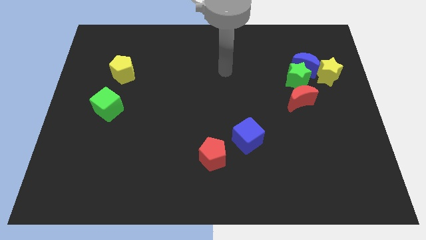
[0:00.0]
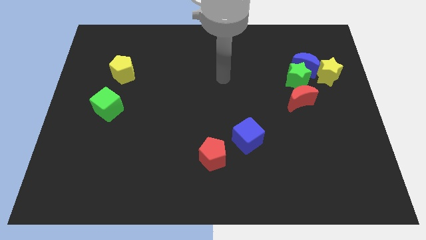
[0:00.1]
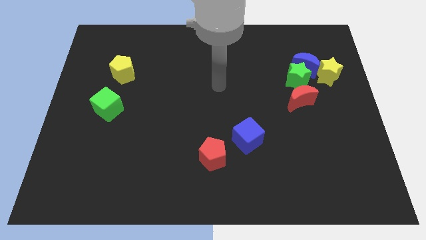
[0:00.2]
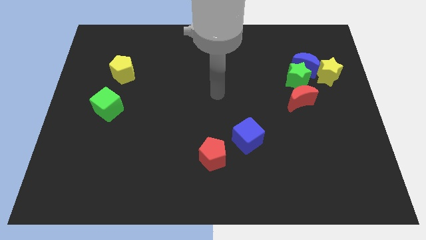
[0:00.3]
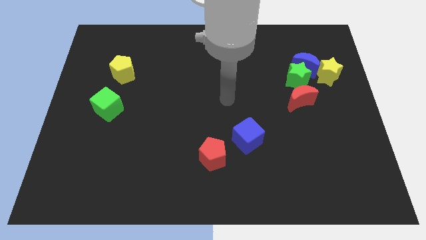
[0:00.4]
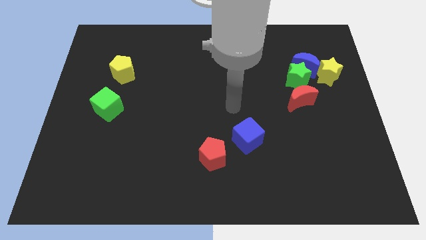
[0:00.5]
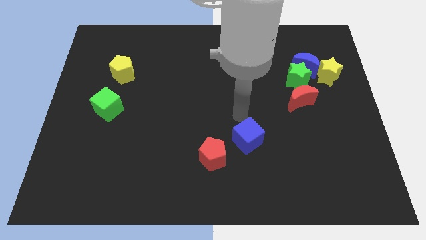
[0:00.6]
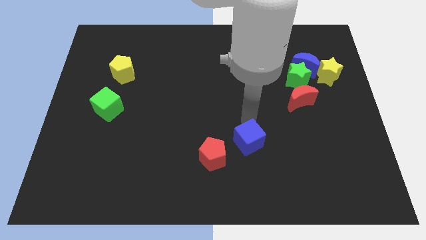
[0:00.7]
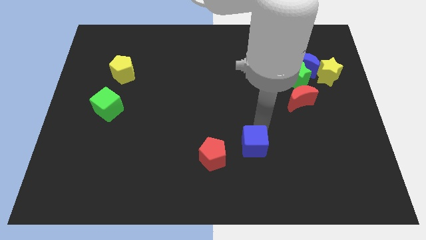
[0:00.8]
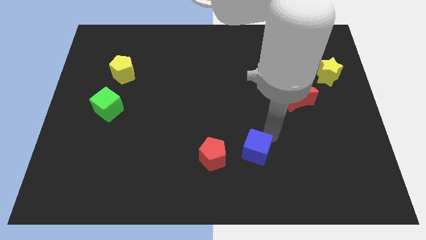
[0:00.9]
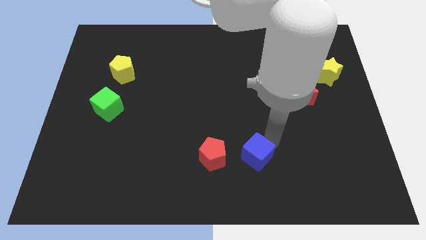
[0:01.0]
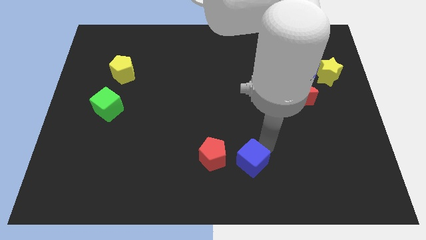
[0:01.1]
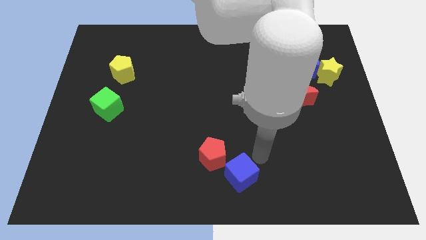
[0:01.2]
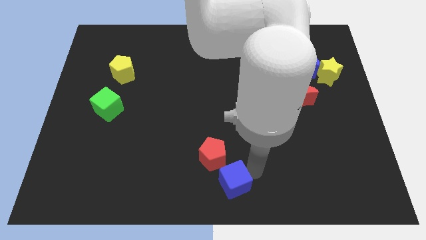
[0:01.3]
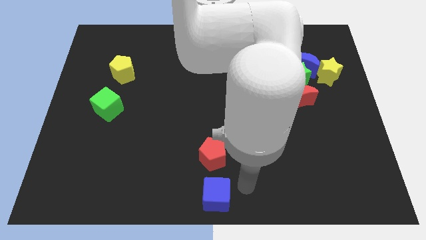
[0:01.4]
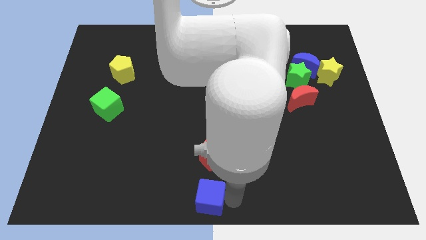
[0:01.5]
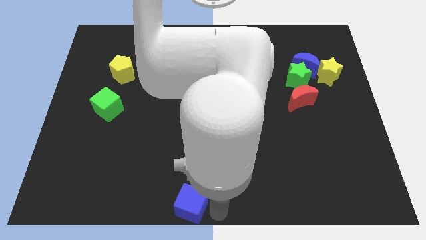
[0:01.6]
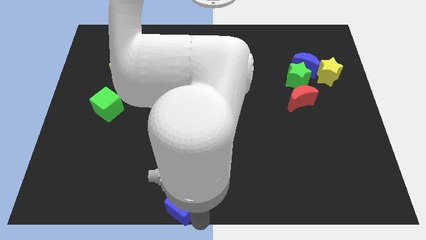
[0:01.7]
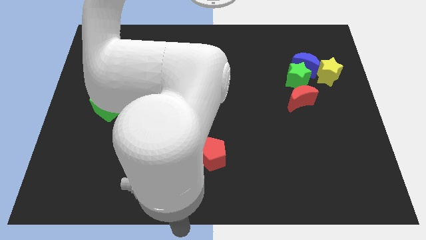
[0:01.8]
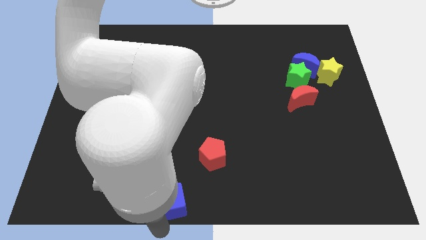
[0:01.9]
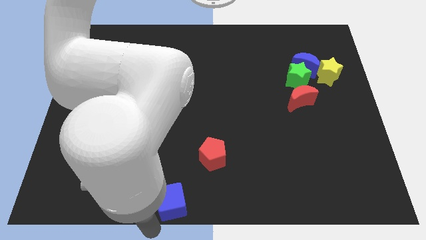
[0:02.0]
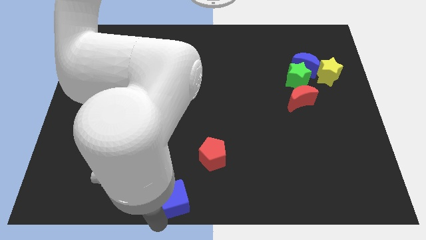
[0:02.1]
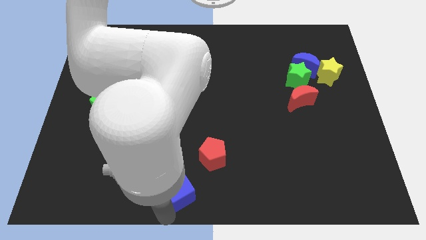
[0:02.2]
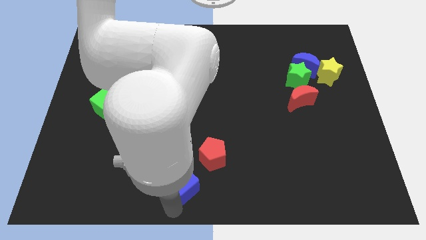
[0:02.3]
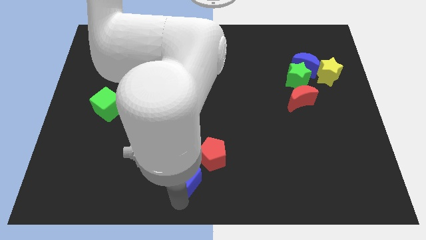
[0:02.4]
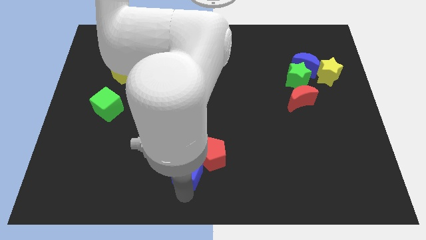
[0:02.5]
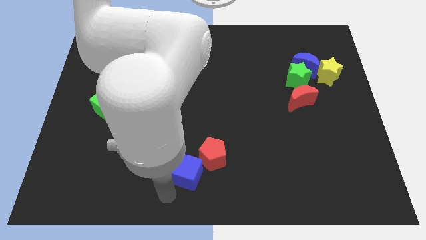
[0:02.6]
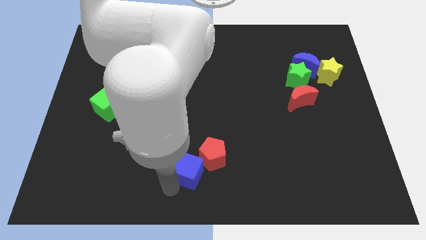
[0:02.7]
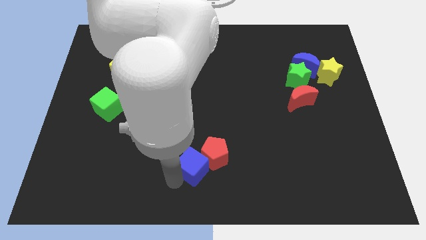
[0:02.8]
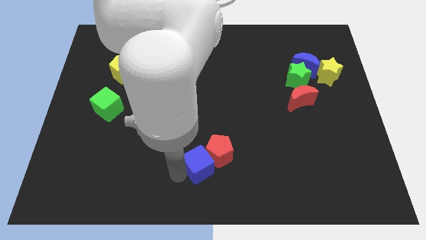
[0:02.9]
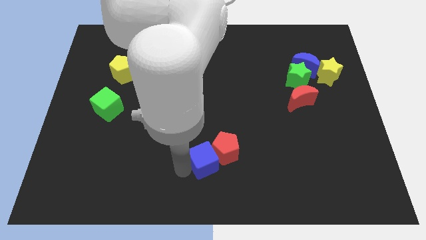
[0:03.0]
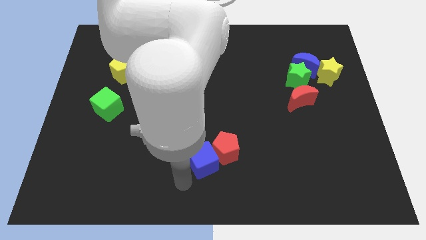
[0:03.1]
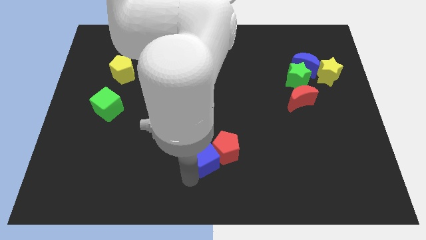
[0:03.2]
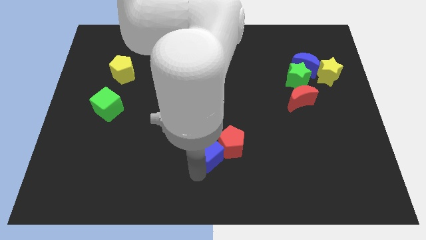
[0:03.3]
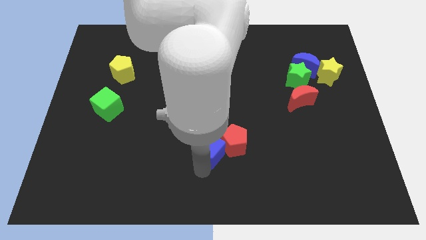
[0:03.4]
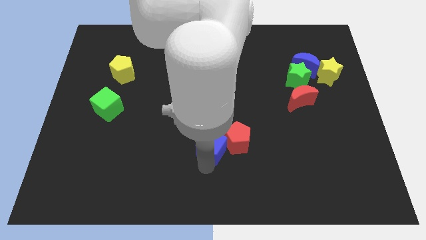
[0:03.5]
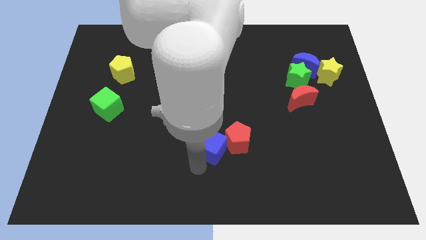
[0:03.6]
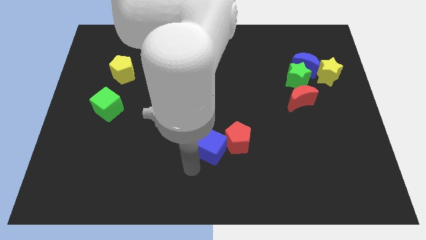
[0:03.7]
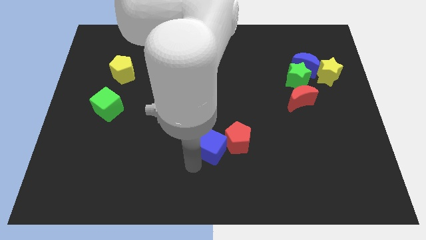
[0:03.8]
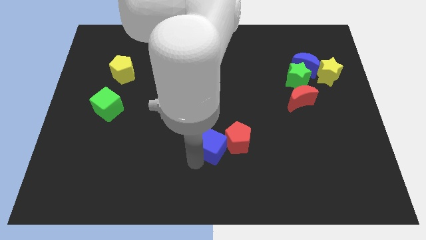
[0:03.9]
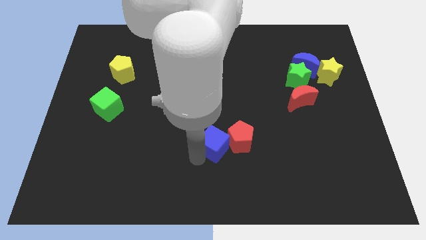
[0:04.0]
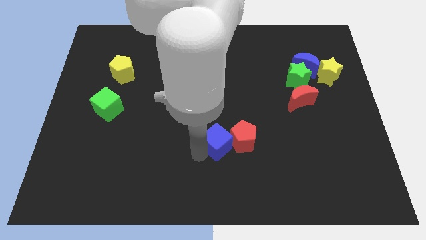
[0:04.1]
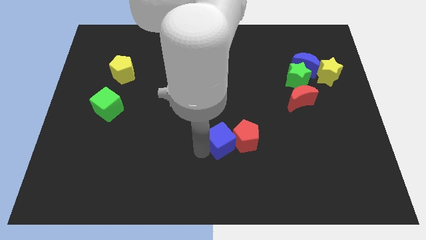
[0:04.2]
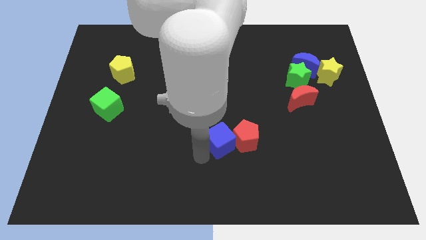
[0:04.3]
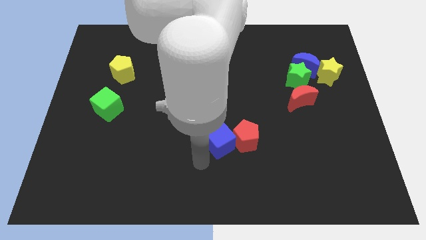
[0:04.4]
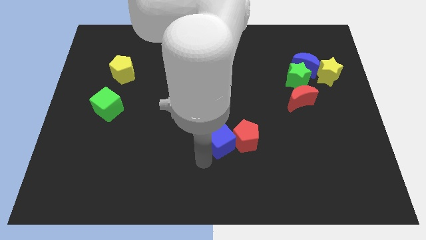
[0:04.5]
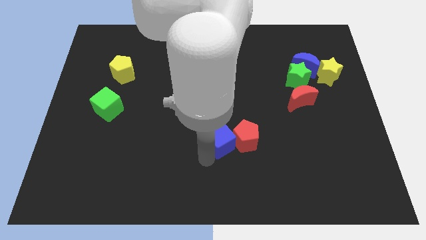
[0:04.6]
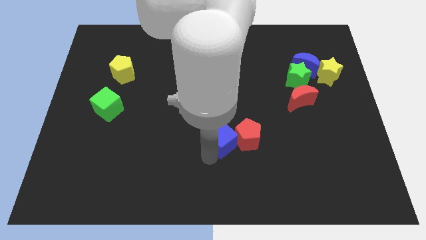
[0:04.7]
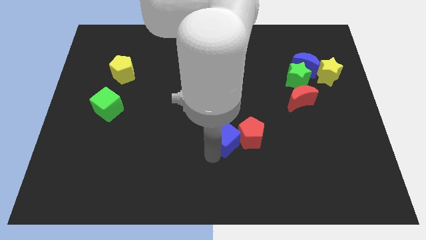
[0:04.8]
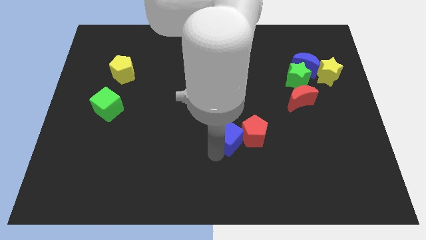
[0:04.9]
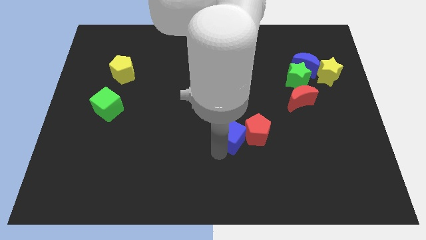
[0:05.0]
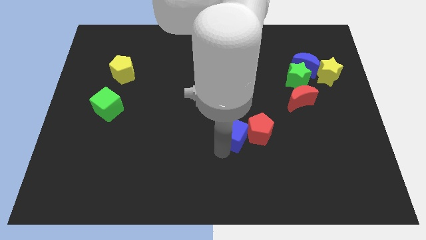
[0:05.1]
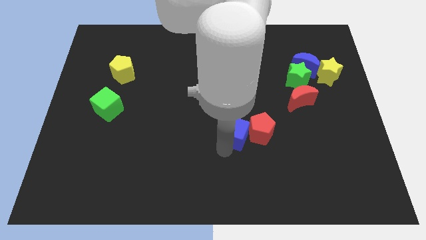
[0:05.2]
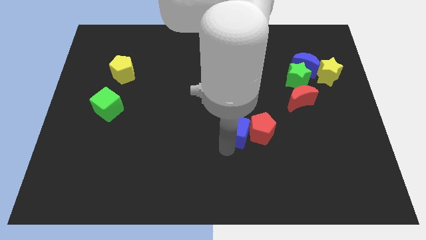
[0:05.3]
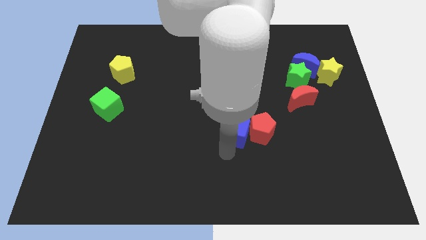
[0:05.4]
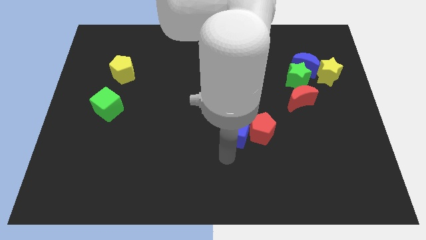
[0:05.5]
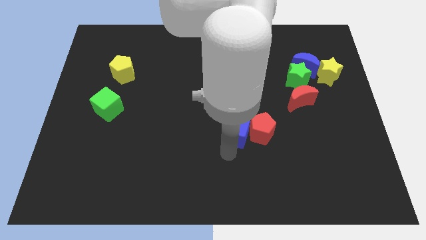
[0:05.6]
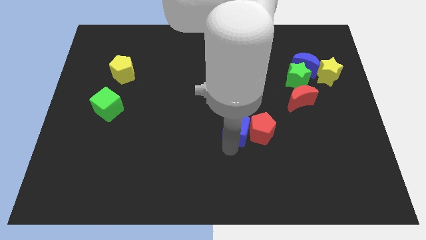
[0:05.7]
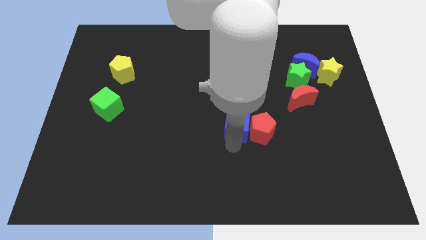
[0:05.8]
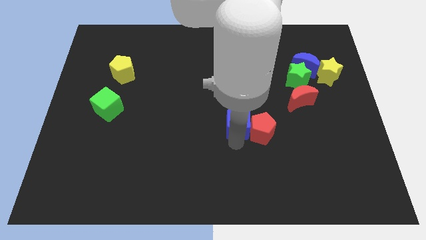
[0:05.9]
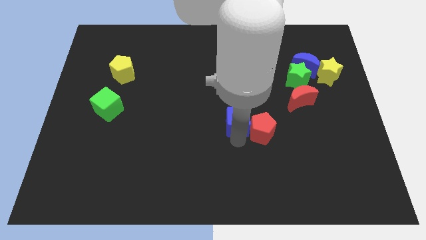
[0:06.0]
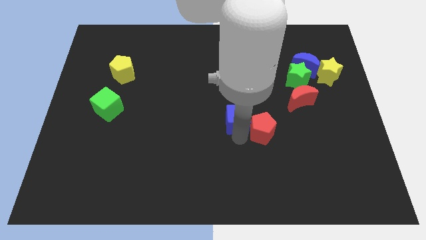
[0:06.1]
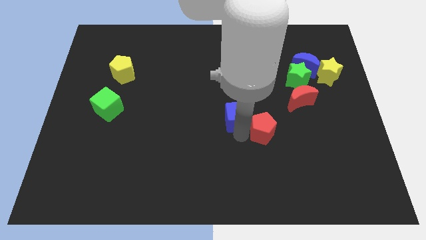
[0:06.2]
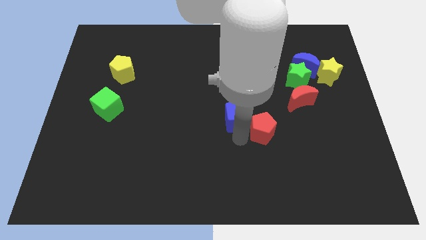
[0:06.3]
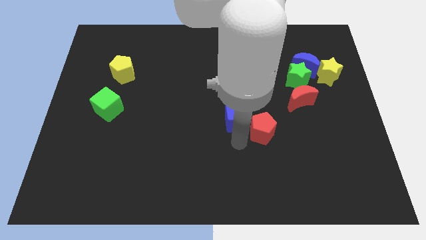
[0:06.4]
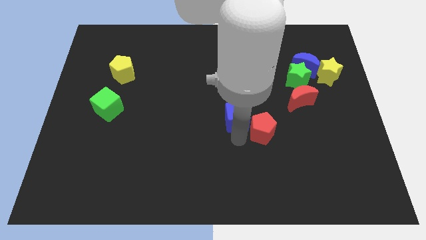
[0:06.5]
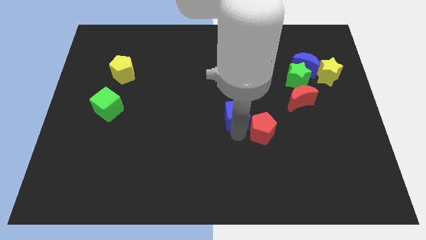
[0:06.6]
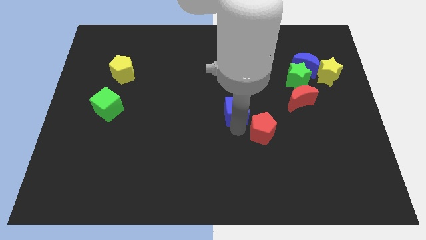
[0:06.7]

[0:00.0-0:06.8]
move the blue cube upwards slightly

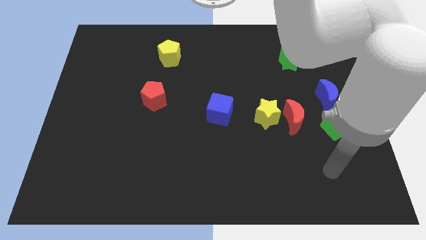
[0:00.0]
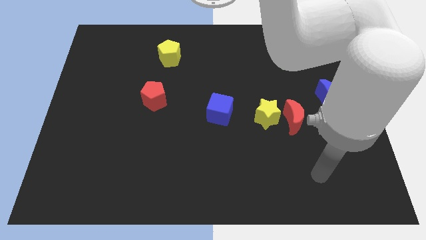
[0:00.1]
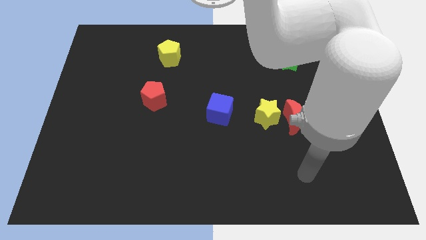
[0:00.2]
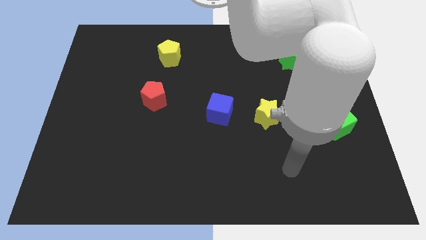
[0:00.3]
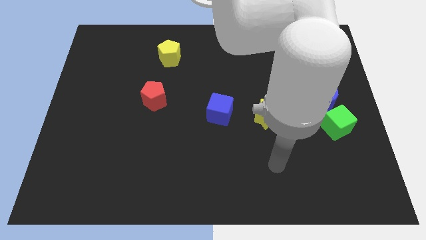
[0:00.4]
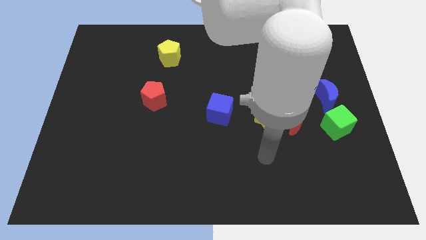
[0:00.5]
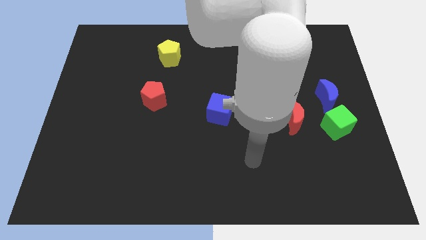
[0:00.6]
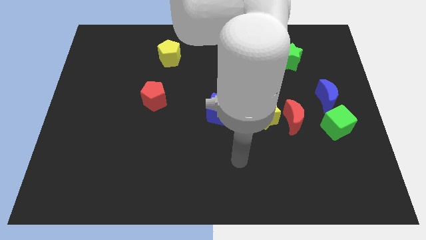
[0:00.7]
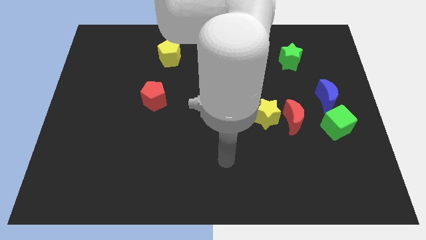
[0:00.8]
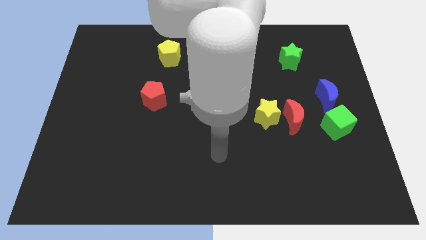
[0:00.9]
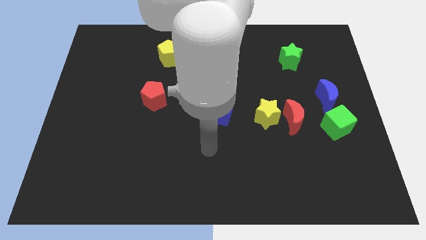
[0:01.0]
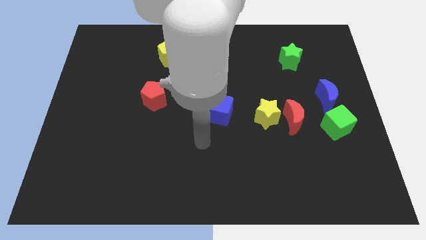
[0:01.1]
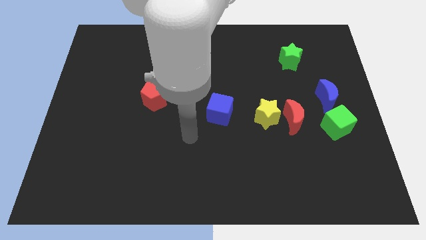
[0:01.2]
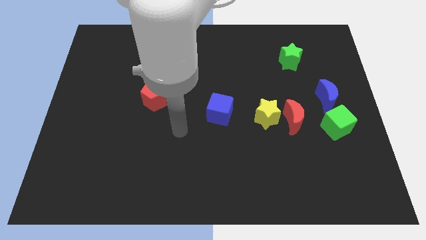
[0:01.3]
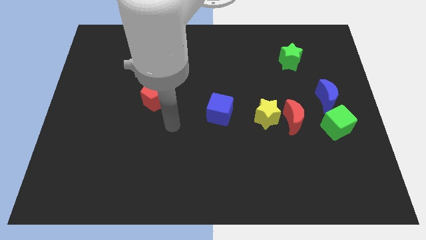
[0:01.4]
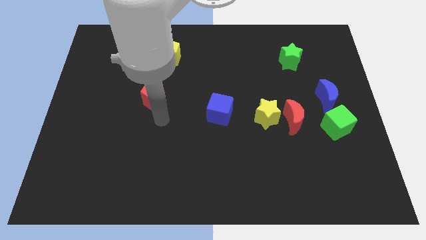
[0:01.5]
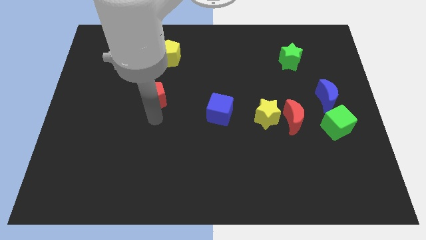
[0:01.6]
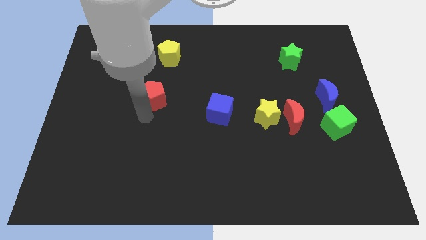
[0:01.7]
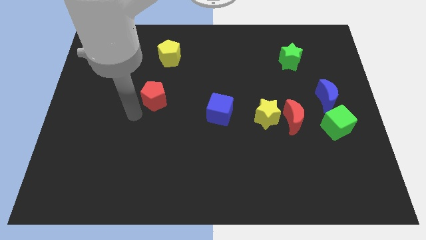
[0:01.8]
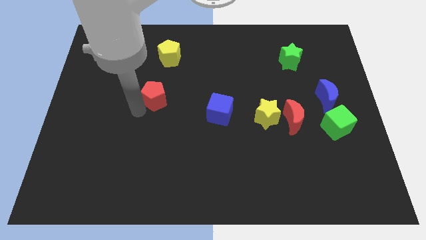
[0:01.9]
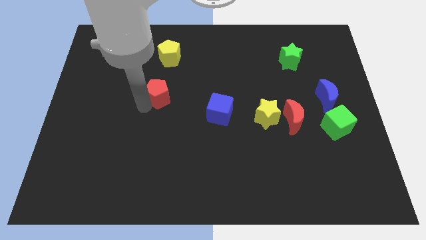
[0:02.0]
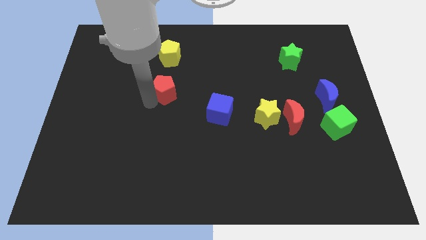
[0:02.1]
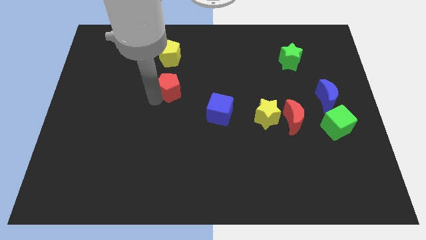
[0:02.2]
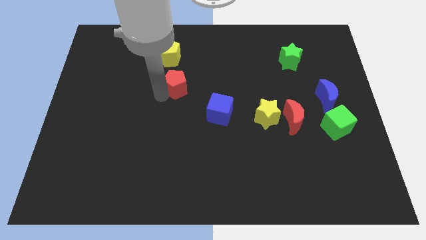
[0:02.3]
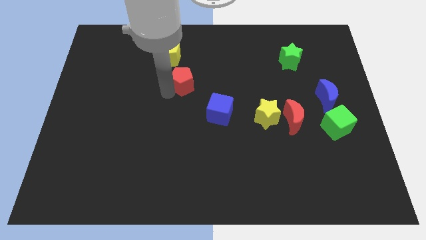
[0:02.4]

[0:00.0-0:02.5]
slightly push the red pentagon diagonally upwards and right
